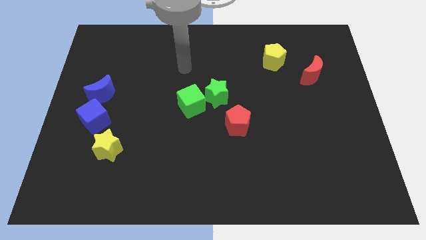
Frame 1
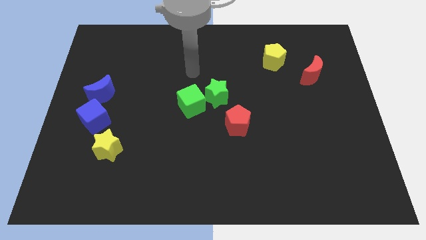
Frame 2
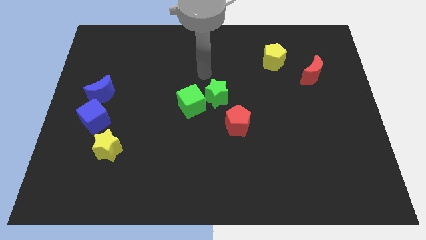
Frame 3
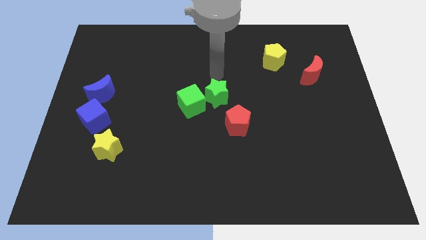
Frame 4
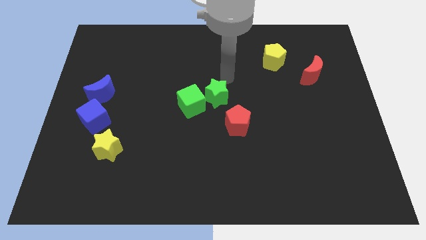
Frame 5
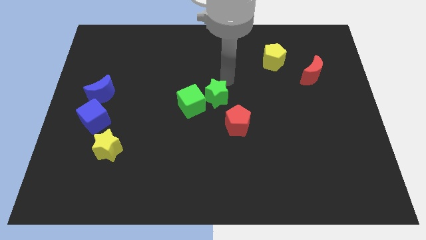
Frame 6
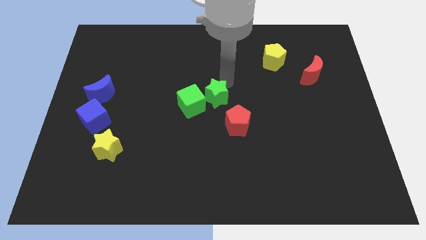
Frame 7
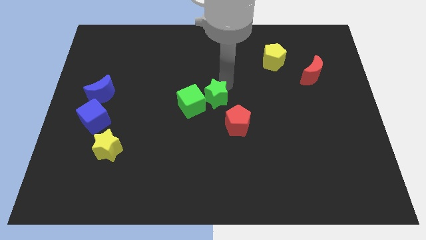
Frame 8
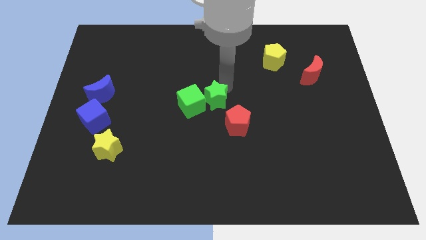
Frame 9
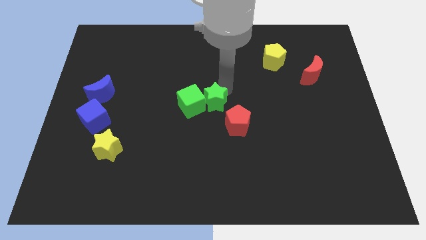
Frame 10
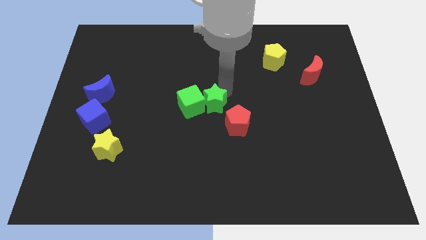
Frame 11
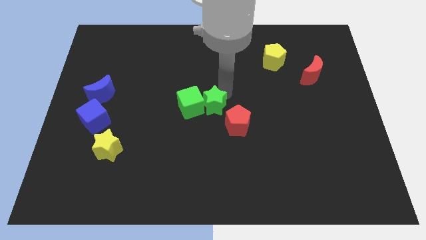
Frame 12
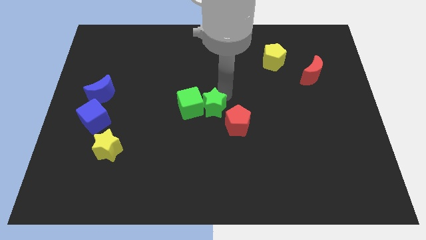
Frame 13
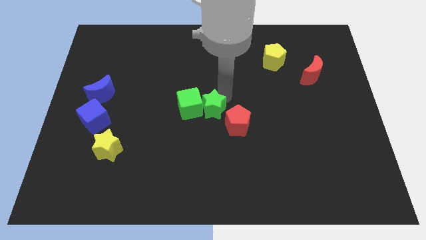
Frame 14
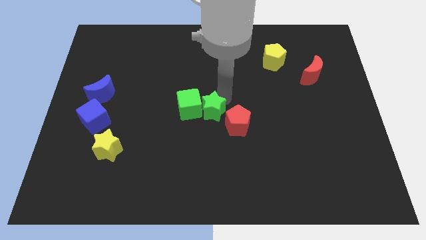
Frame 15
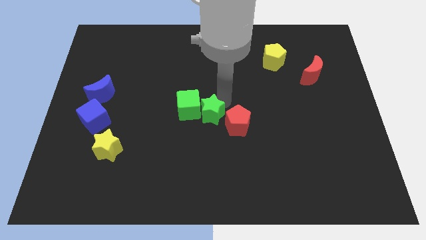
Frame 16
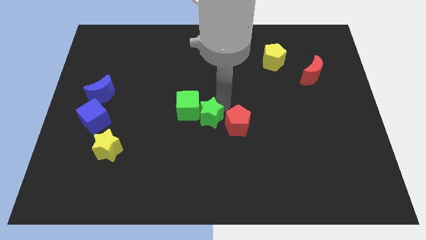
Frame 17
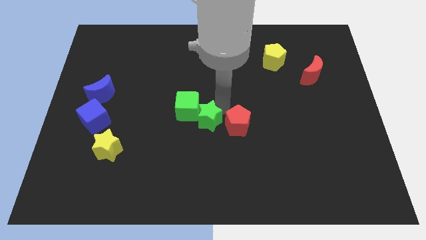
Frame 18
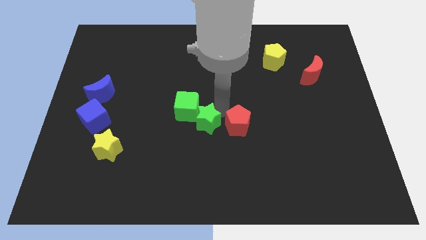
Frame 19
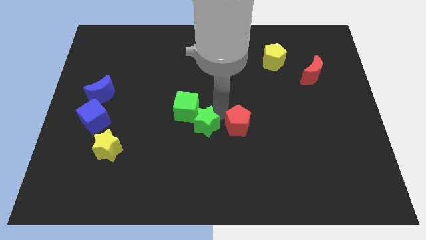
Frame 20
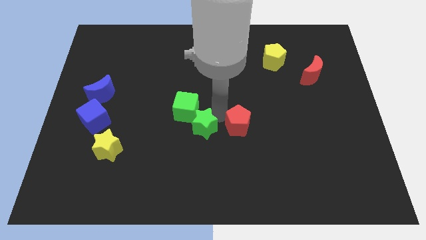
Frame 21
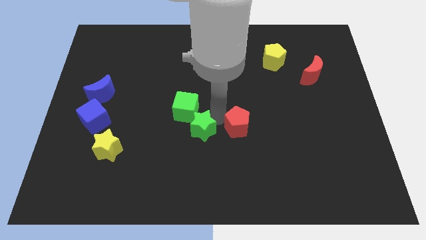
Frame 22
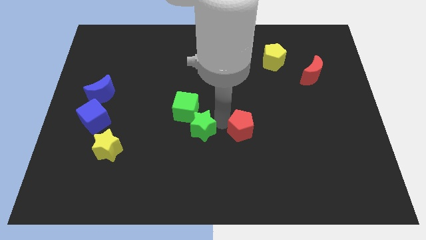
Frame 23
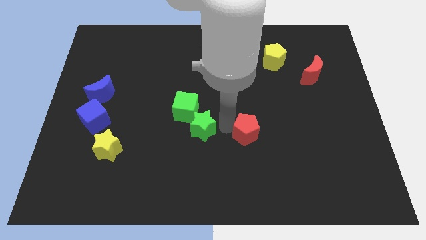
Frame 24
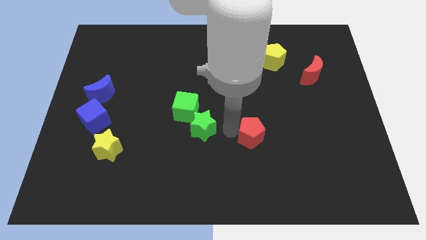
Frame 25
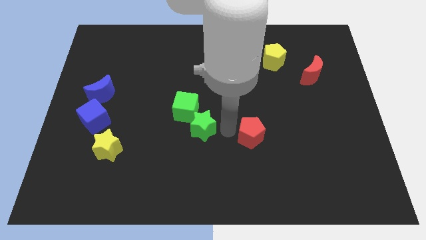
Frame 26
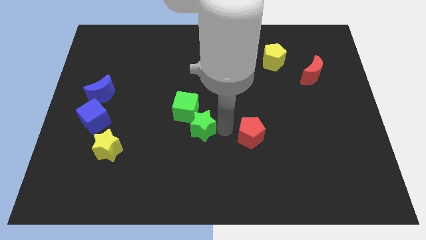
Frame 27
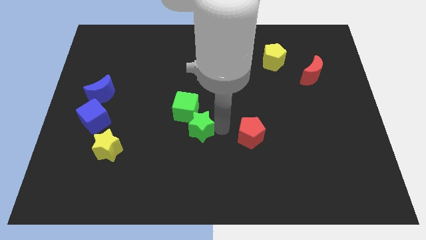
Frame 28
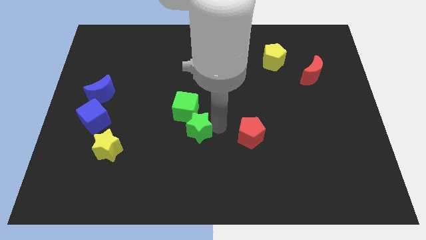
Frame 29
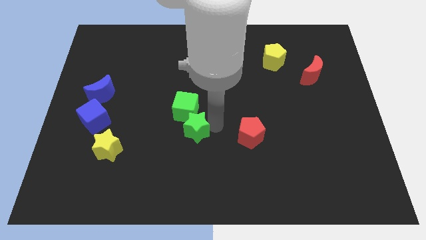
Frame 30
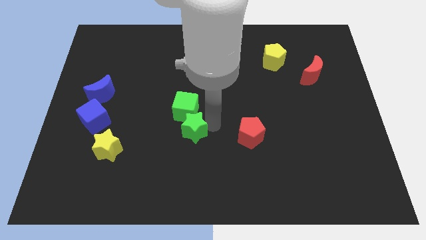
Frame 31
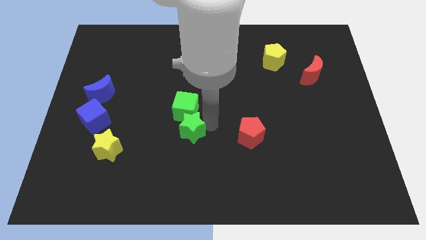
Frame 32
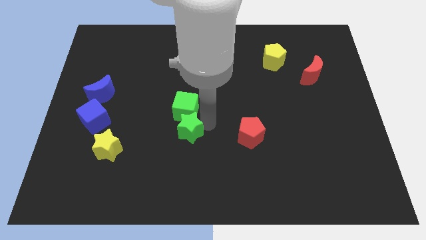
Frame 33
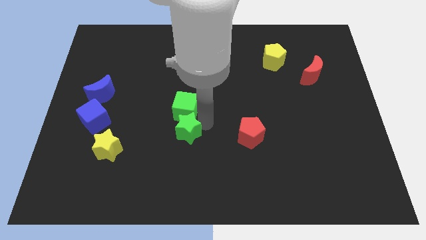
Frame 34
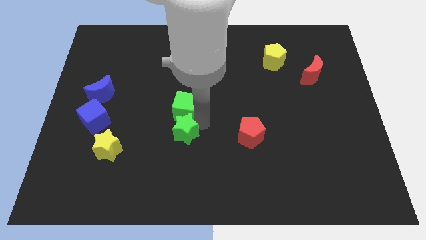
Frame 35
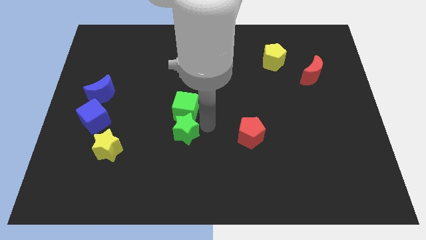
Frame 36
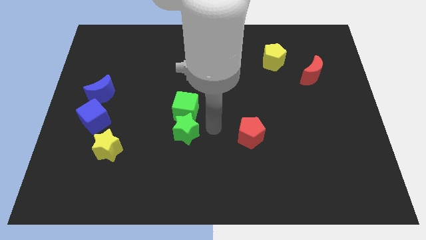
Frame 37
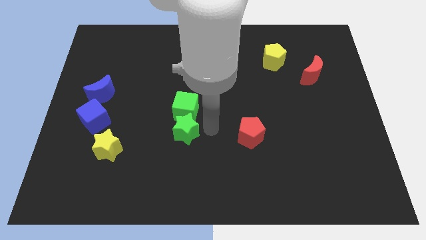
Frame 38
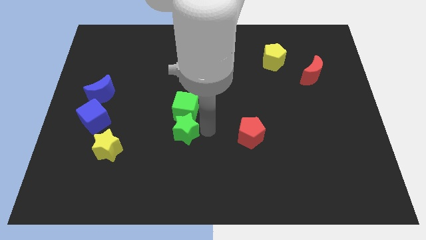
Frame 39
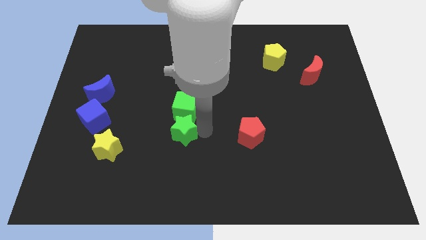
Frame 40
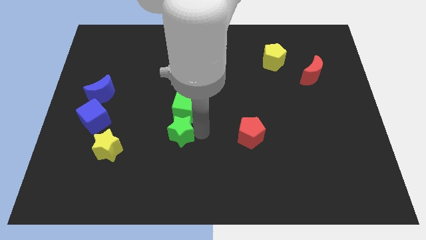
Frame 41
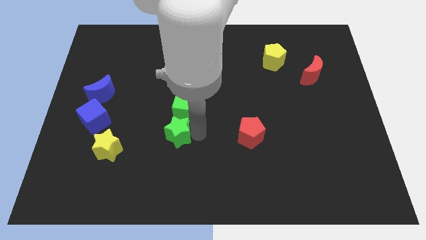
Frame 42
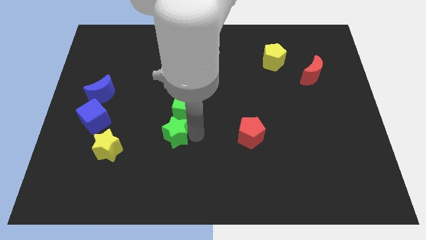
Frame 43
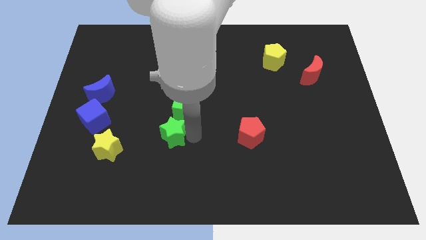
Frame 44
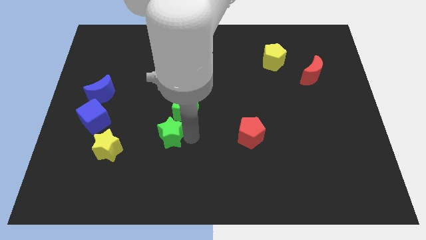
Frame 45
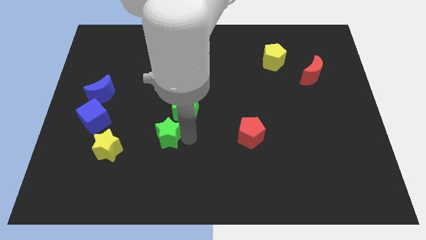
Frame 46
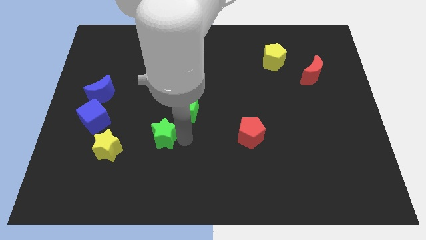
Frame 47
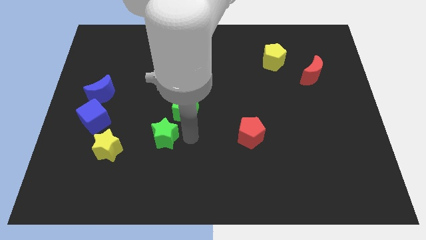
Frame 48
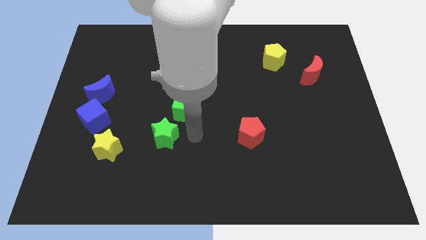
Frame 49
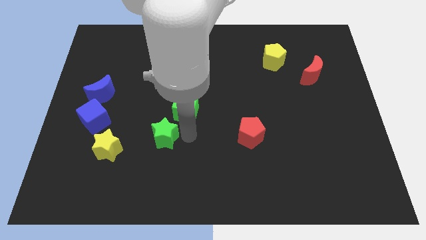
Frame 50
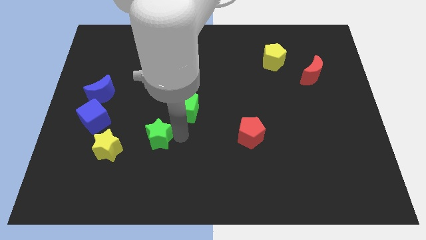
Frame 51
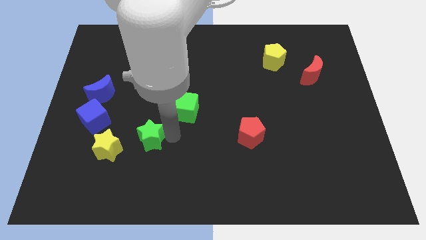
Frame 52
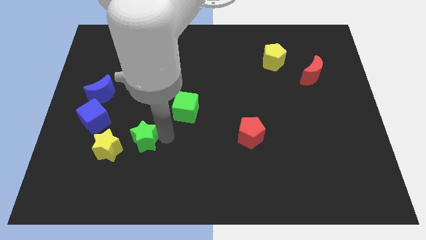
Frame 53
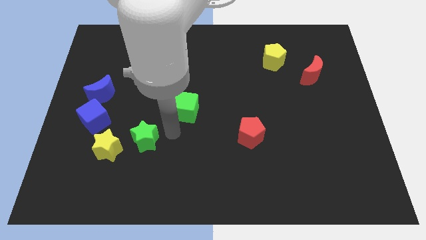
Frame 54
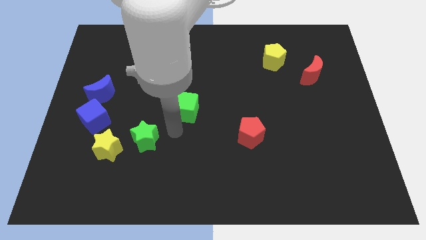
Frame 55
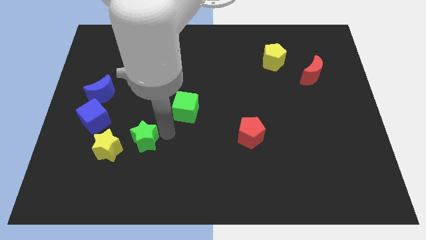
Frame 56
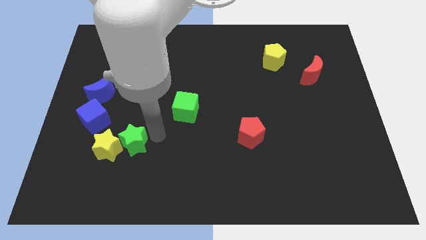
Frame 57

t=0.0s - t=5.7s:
move the green star close to the yellow star

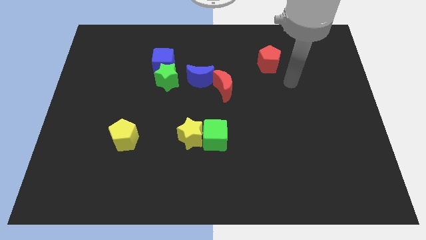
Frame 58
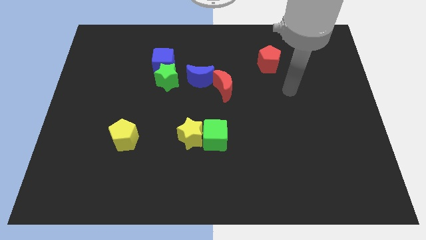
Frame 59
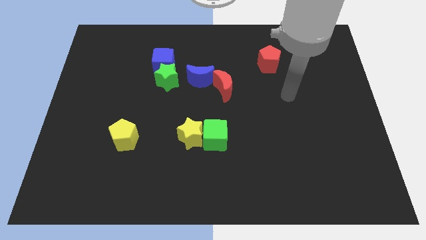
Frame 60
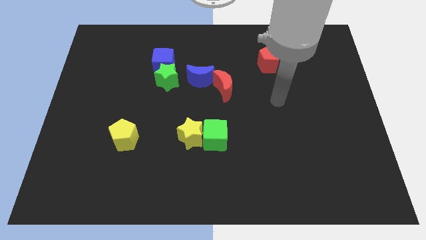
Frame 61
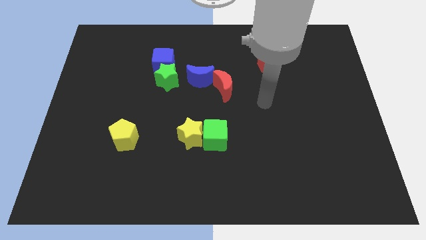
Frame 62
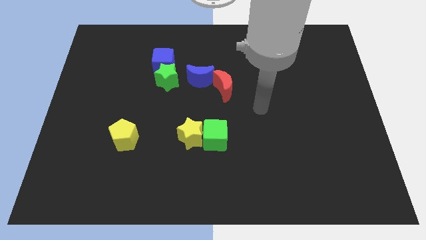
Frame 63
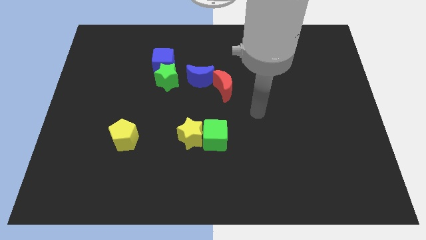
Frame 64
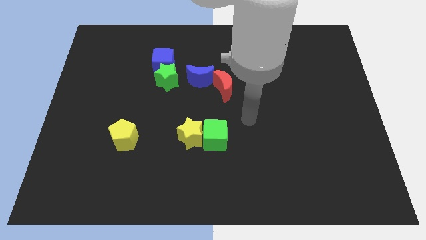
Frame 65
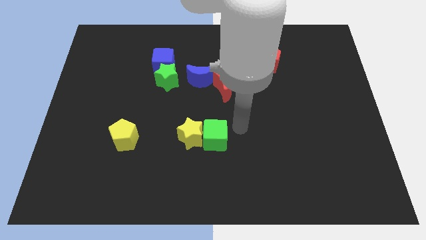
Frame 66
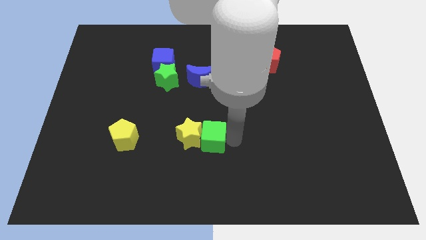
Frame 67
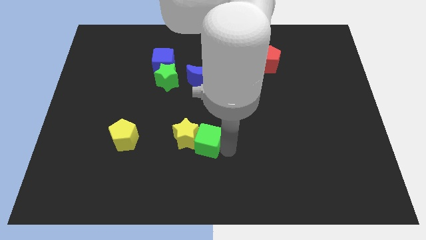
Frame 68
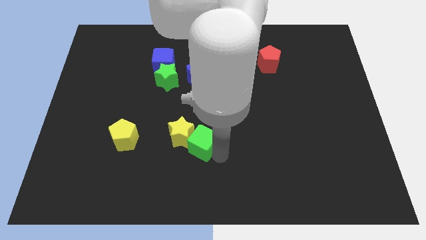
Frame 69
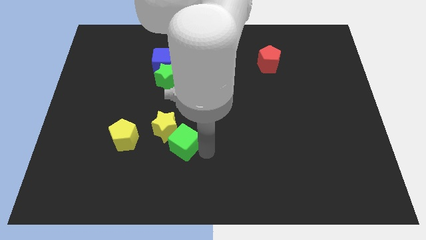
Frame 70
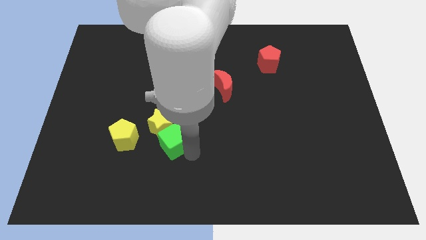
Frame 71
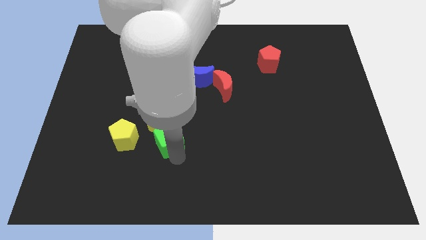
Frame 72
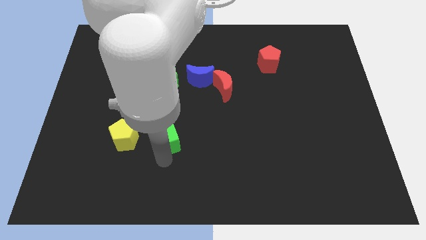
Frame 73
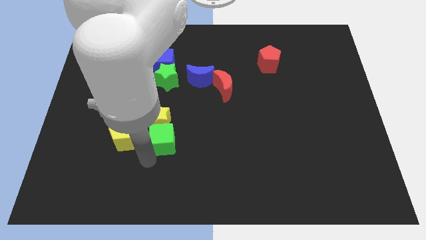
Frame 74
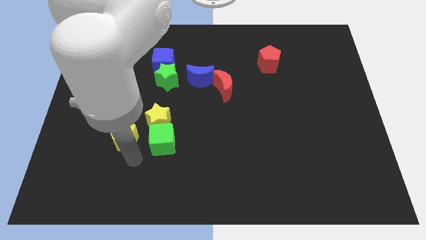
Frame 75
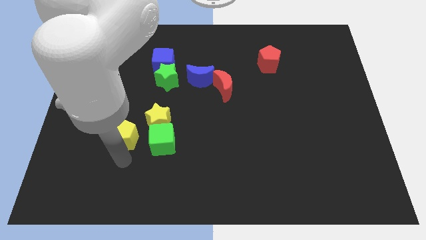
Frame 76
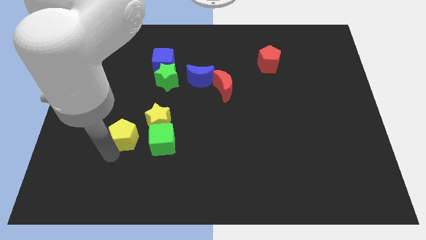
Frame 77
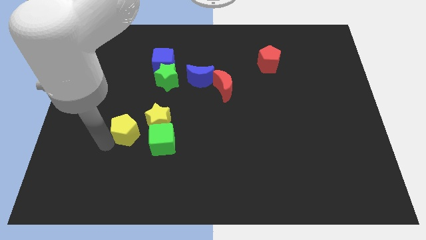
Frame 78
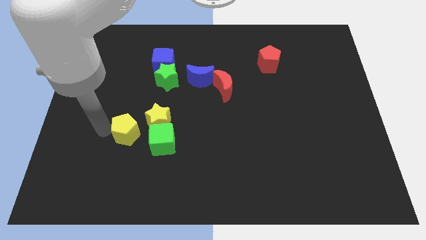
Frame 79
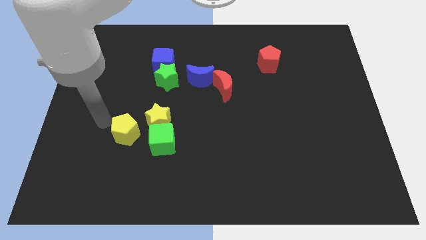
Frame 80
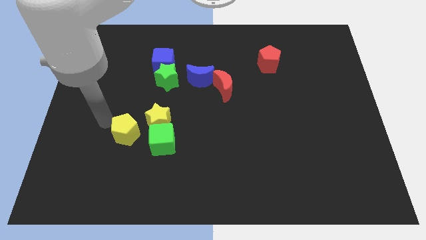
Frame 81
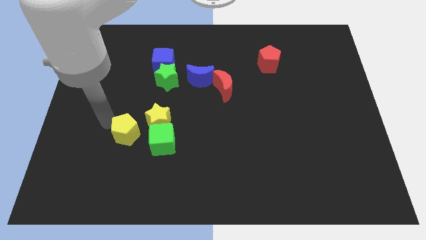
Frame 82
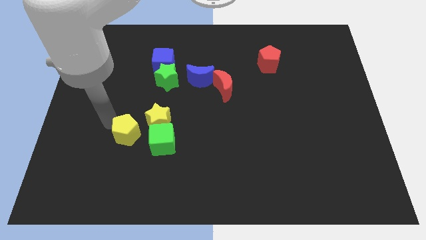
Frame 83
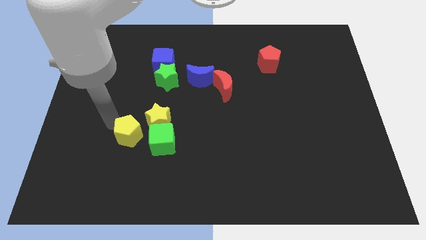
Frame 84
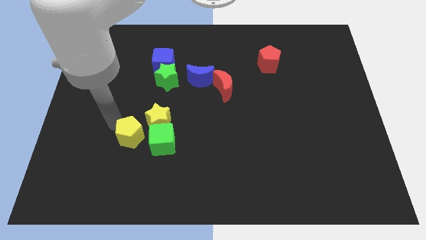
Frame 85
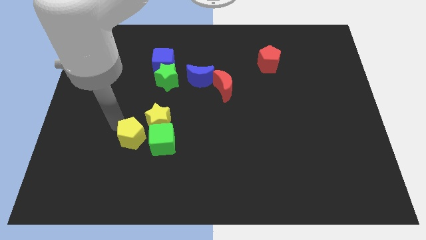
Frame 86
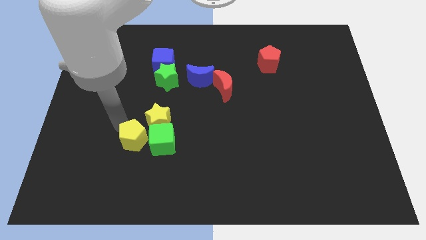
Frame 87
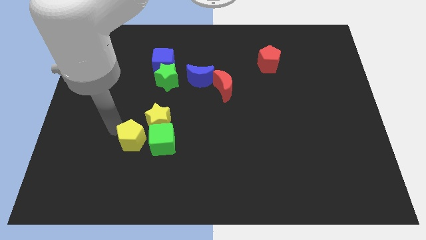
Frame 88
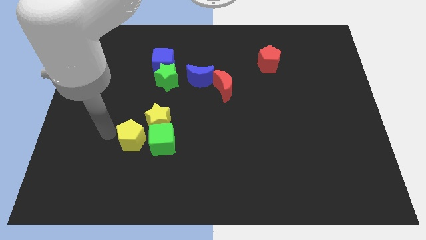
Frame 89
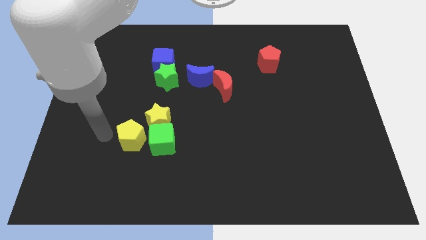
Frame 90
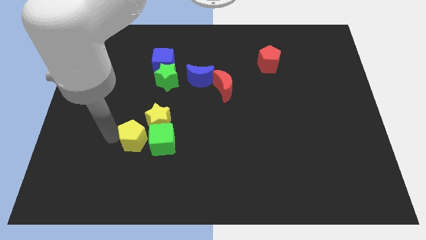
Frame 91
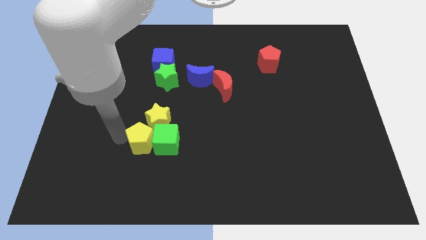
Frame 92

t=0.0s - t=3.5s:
move the yellow pentagon to the yellow star
